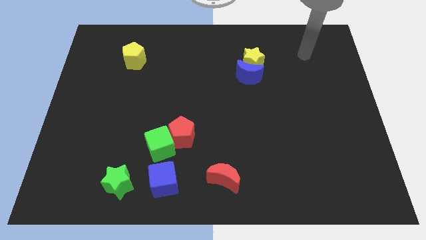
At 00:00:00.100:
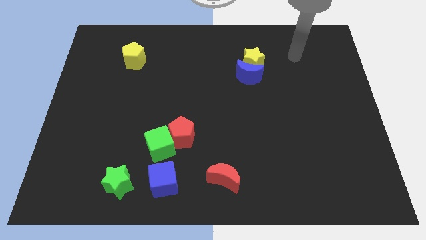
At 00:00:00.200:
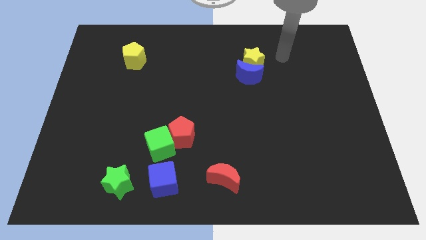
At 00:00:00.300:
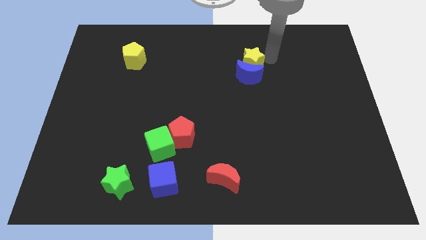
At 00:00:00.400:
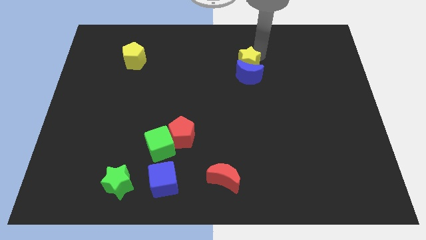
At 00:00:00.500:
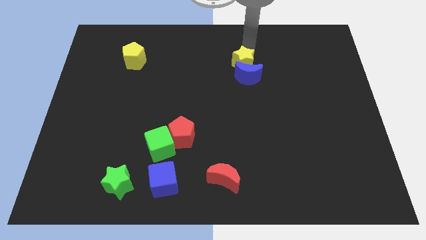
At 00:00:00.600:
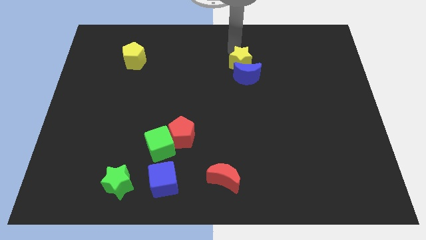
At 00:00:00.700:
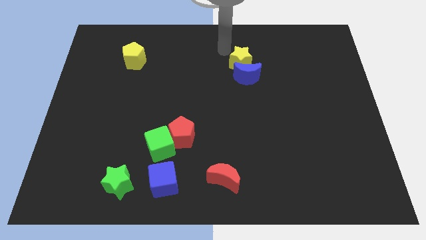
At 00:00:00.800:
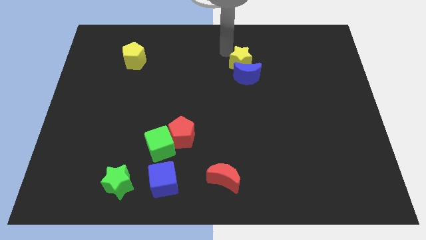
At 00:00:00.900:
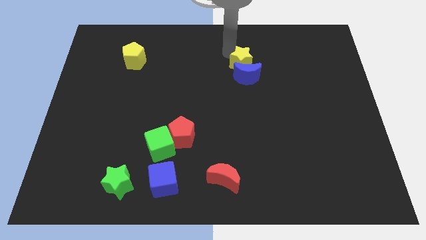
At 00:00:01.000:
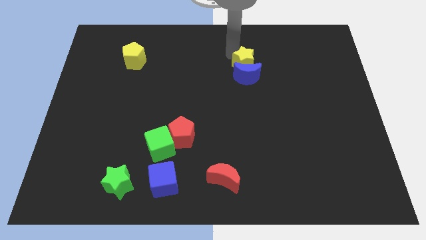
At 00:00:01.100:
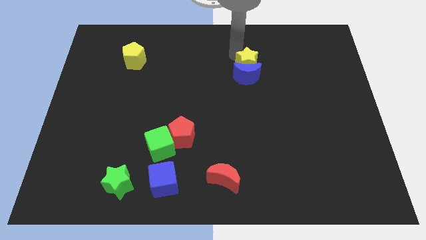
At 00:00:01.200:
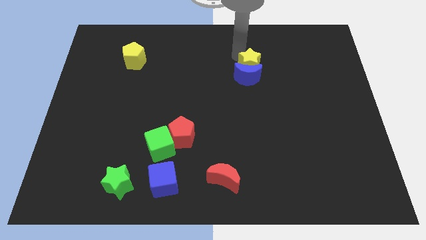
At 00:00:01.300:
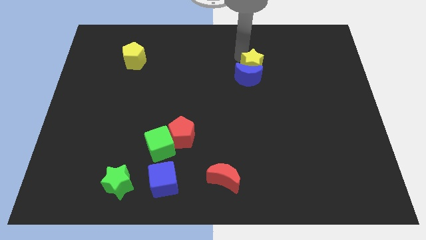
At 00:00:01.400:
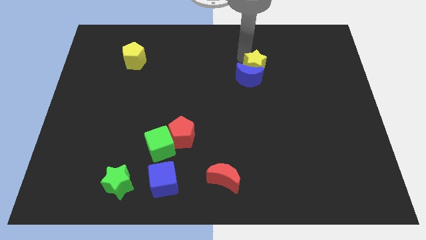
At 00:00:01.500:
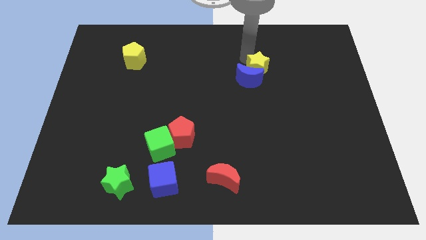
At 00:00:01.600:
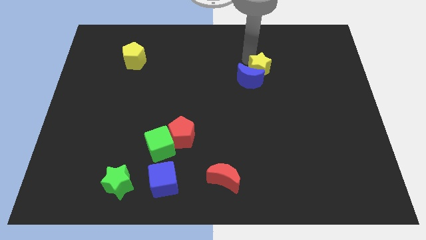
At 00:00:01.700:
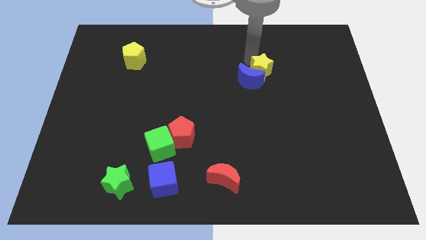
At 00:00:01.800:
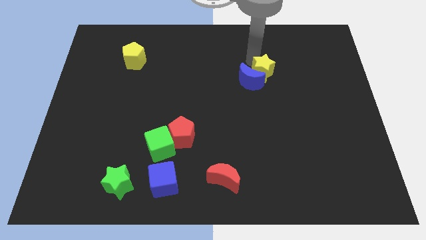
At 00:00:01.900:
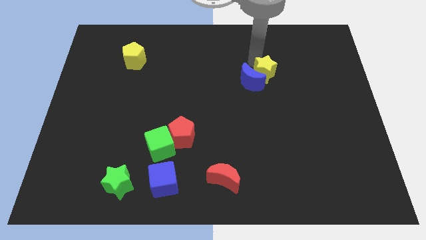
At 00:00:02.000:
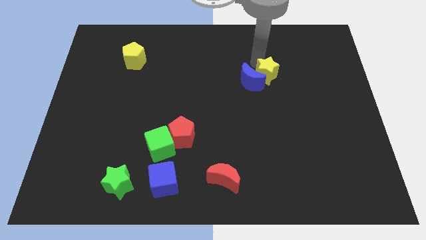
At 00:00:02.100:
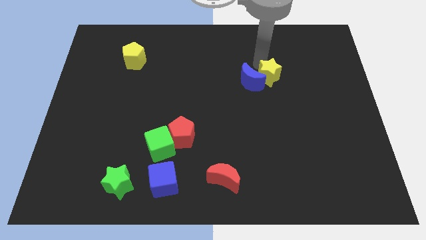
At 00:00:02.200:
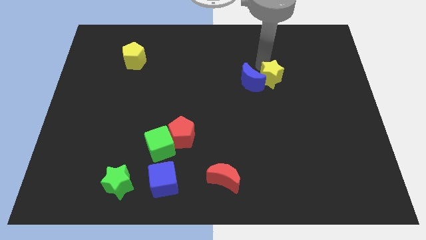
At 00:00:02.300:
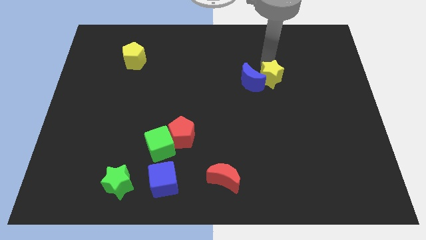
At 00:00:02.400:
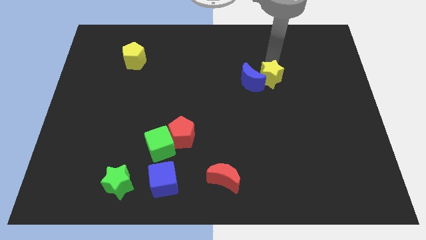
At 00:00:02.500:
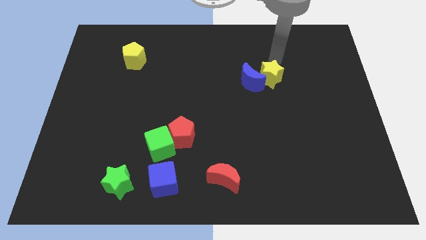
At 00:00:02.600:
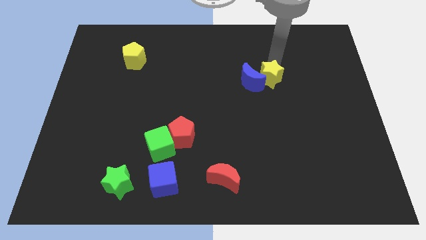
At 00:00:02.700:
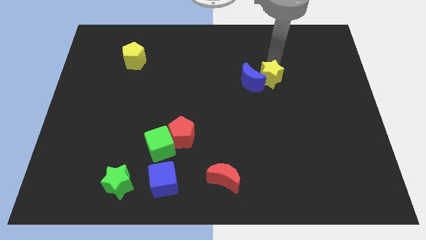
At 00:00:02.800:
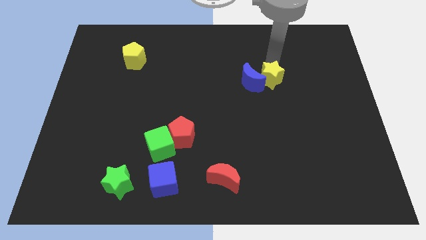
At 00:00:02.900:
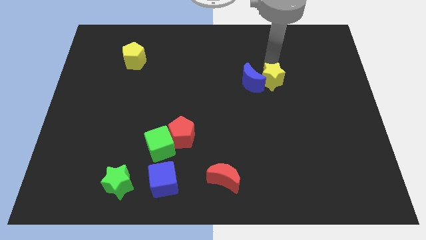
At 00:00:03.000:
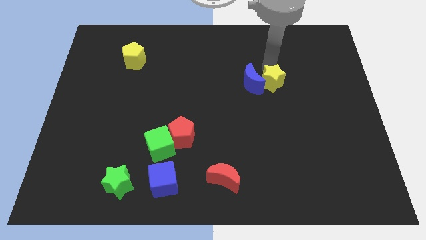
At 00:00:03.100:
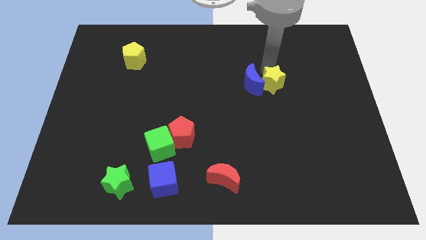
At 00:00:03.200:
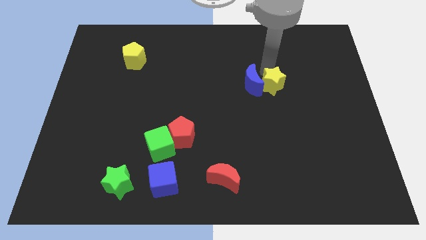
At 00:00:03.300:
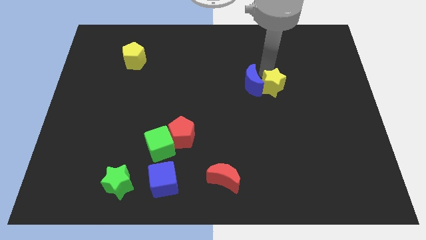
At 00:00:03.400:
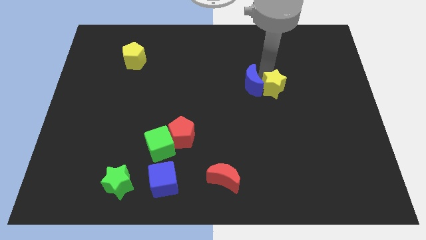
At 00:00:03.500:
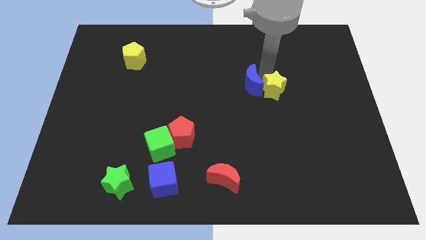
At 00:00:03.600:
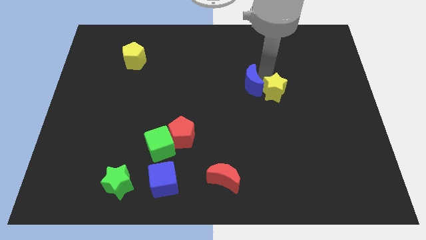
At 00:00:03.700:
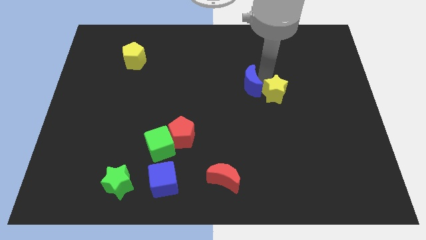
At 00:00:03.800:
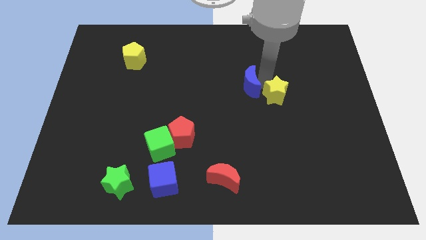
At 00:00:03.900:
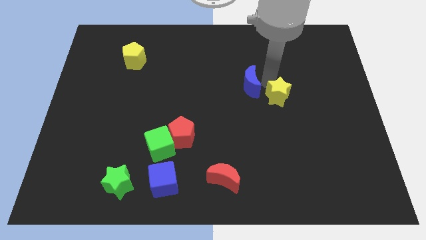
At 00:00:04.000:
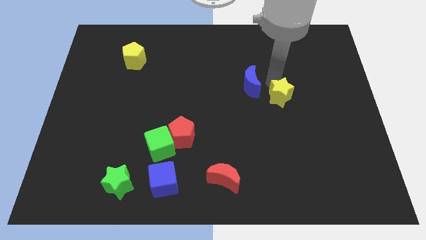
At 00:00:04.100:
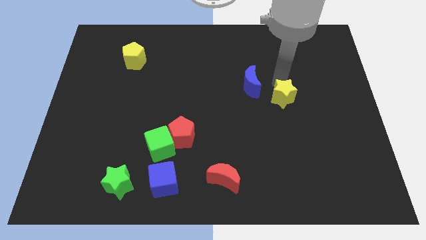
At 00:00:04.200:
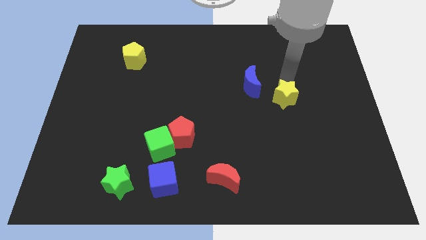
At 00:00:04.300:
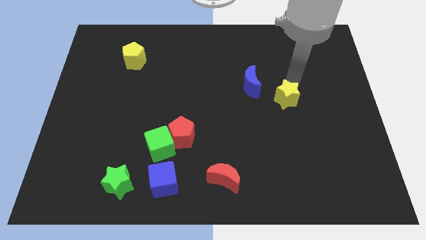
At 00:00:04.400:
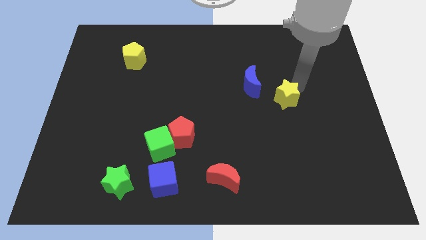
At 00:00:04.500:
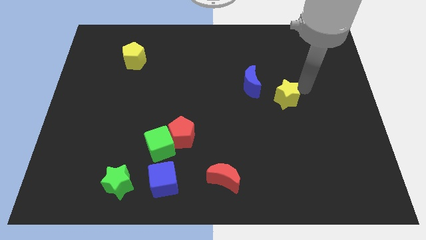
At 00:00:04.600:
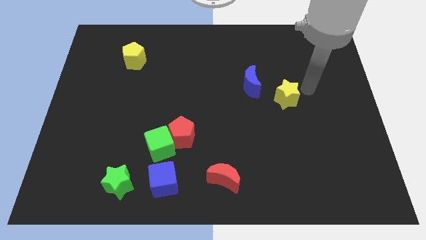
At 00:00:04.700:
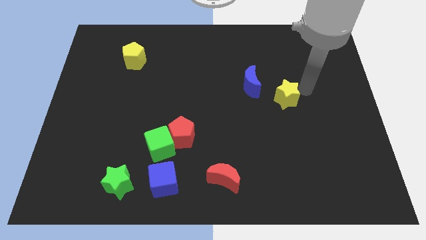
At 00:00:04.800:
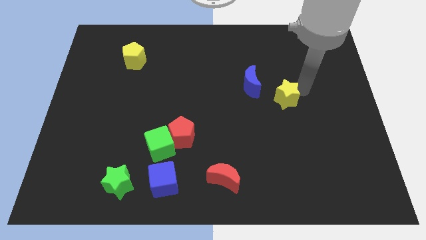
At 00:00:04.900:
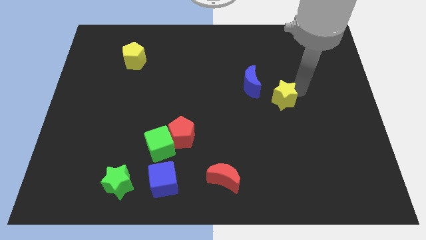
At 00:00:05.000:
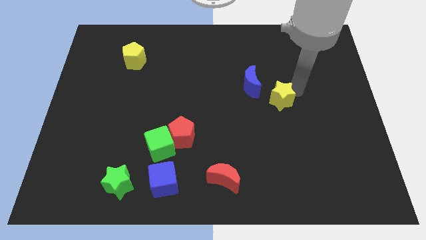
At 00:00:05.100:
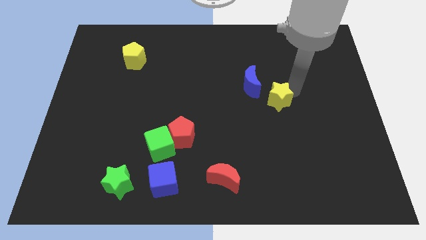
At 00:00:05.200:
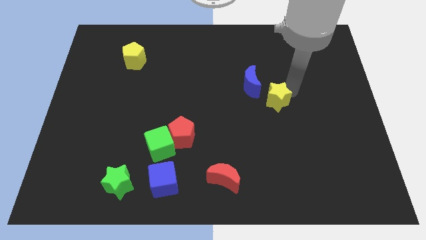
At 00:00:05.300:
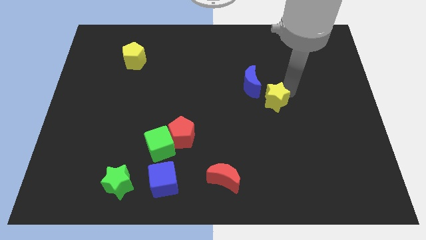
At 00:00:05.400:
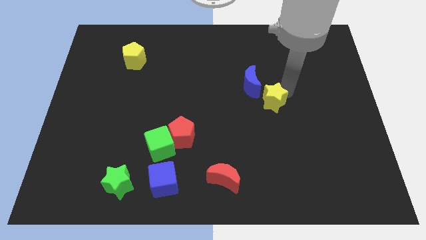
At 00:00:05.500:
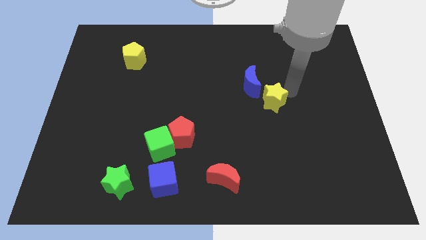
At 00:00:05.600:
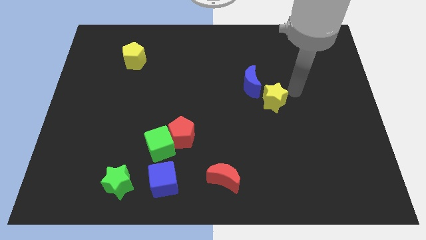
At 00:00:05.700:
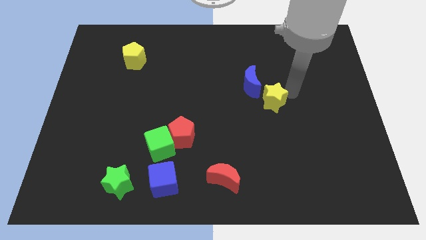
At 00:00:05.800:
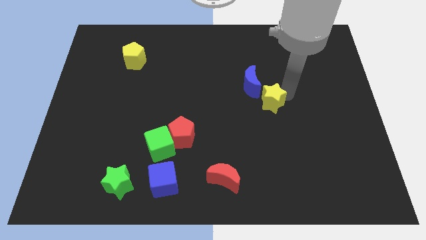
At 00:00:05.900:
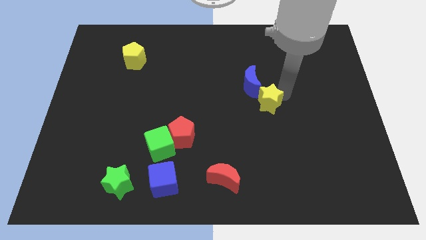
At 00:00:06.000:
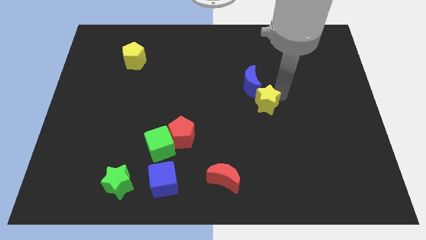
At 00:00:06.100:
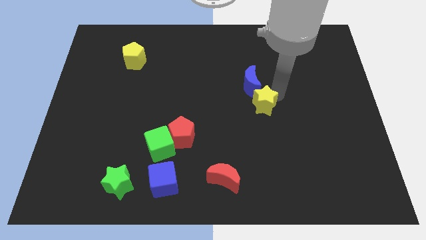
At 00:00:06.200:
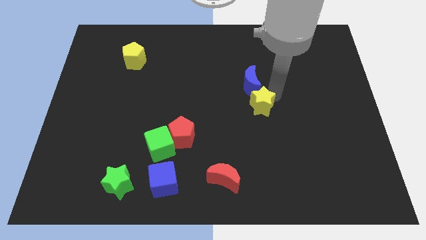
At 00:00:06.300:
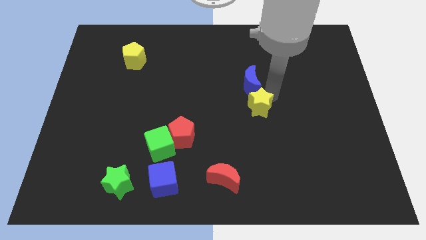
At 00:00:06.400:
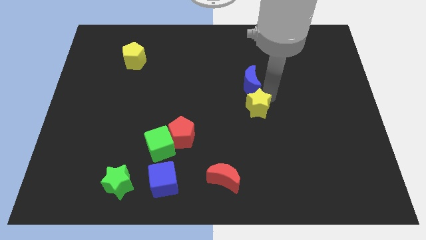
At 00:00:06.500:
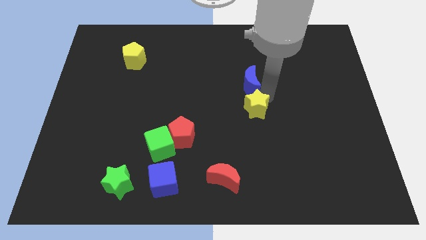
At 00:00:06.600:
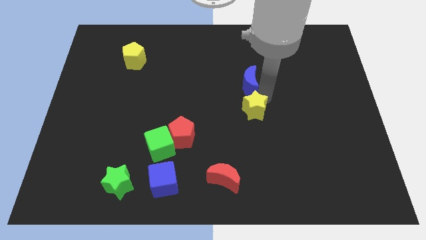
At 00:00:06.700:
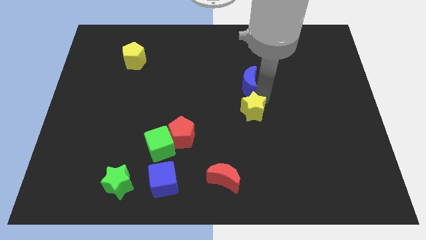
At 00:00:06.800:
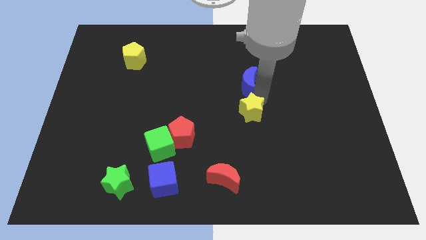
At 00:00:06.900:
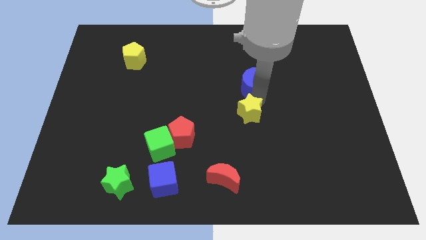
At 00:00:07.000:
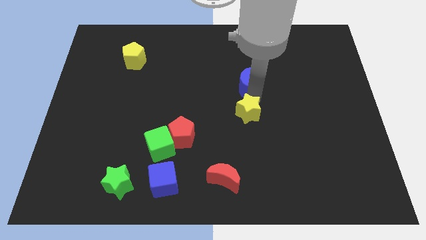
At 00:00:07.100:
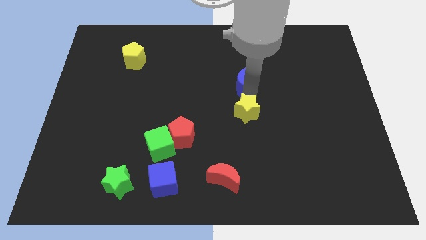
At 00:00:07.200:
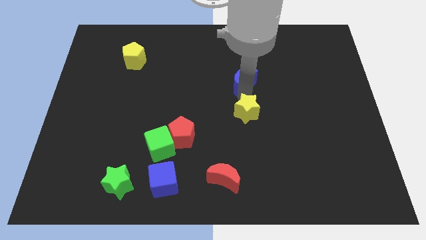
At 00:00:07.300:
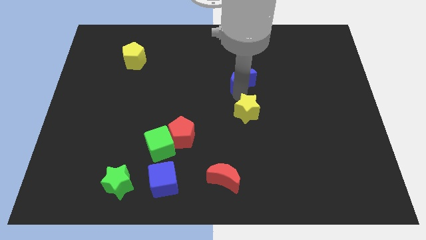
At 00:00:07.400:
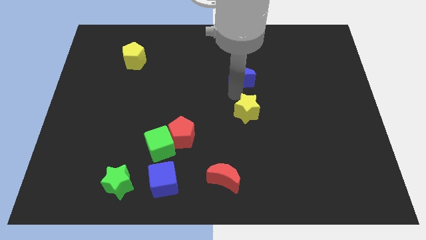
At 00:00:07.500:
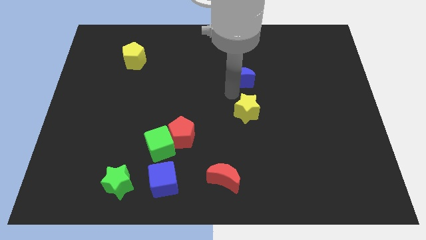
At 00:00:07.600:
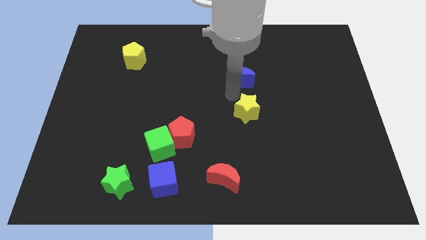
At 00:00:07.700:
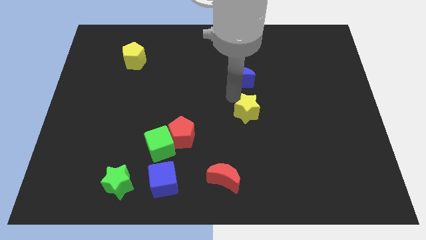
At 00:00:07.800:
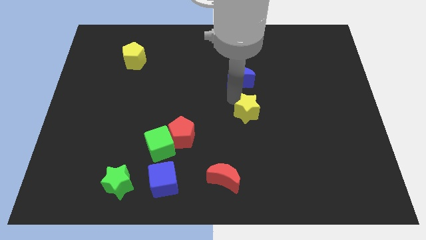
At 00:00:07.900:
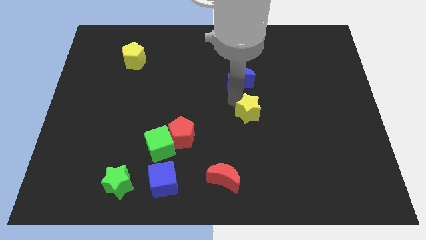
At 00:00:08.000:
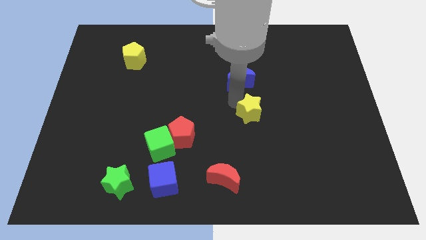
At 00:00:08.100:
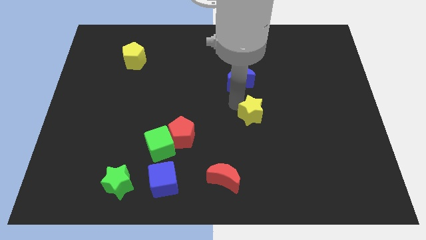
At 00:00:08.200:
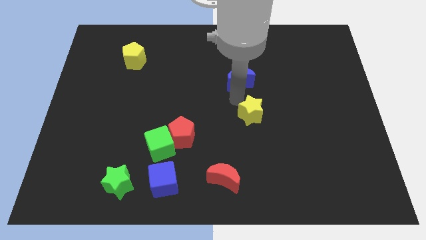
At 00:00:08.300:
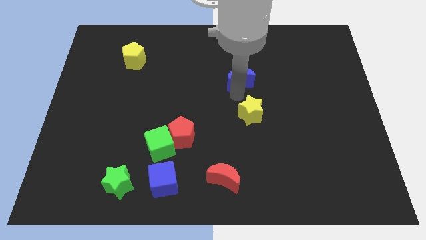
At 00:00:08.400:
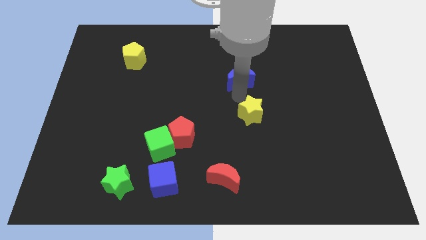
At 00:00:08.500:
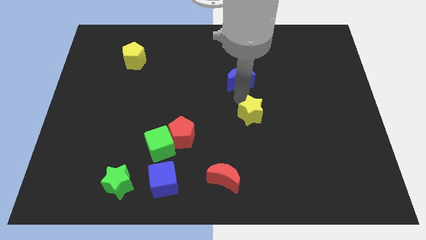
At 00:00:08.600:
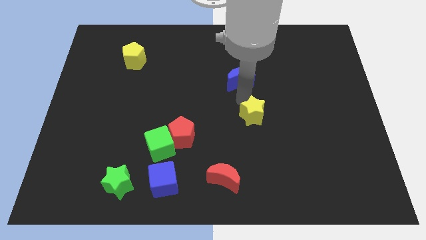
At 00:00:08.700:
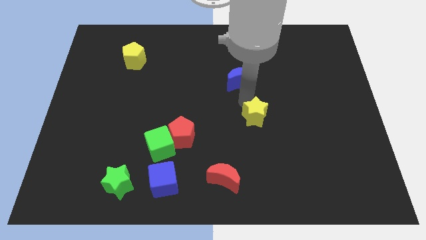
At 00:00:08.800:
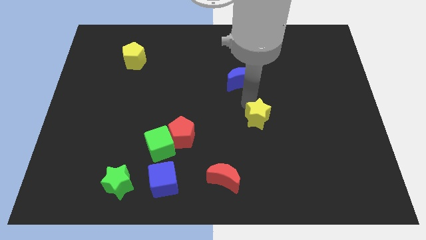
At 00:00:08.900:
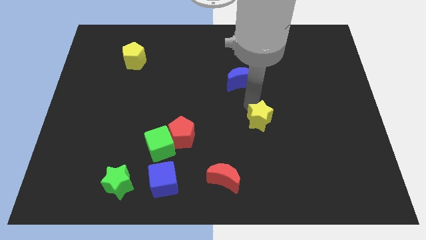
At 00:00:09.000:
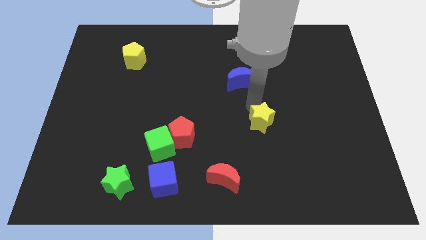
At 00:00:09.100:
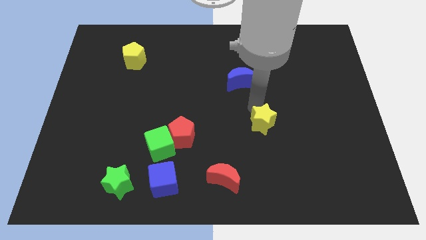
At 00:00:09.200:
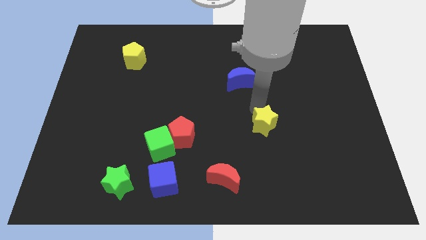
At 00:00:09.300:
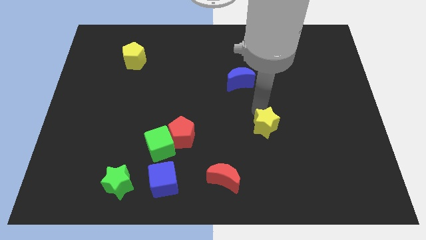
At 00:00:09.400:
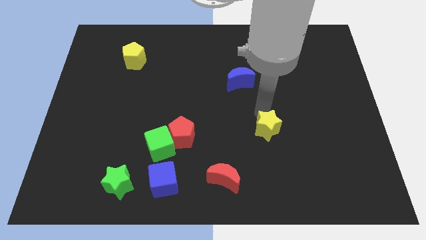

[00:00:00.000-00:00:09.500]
push the yellow star down
